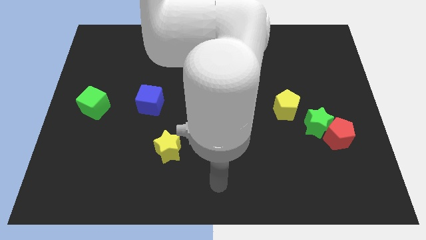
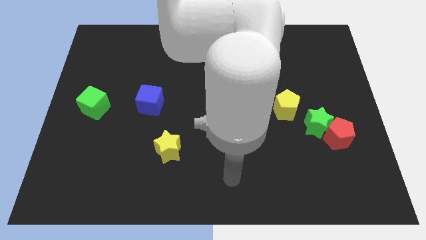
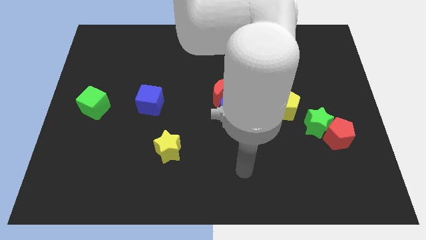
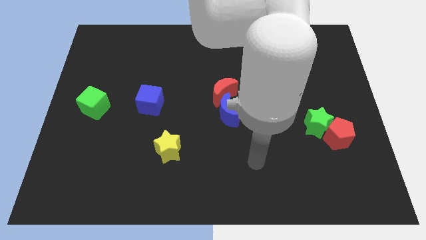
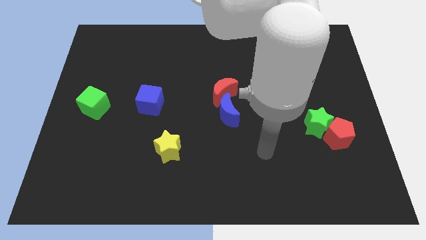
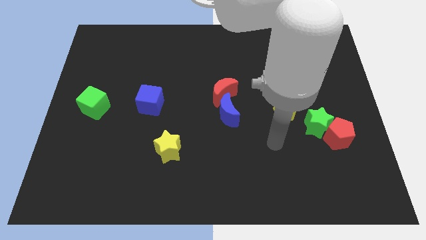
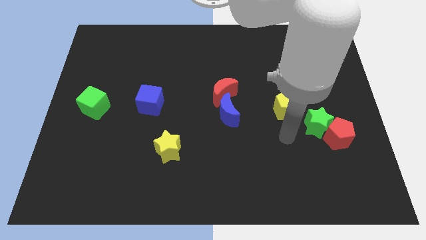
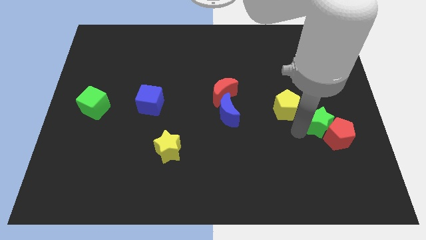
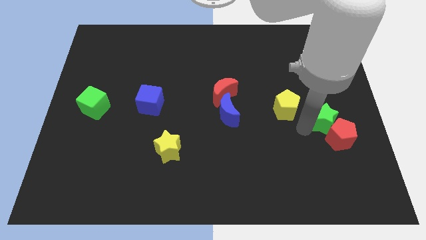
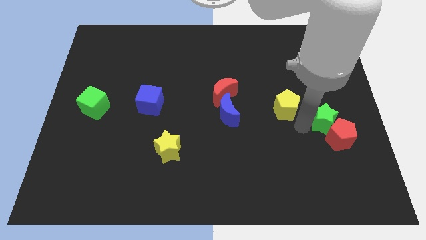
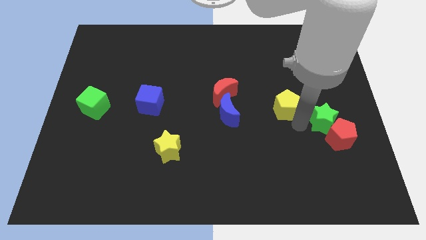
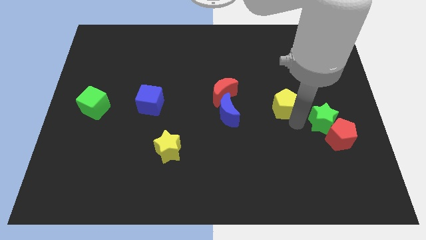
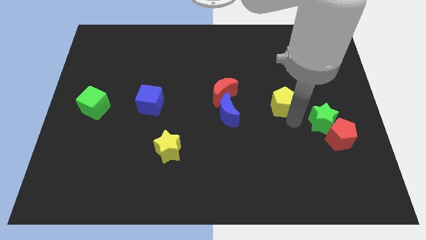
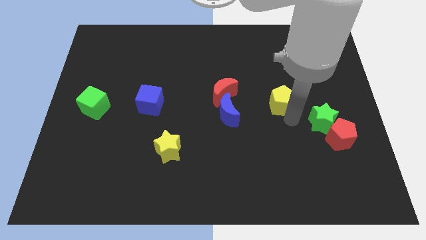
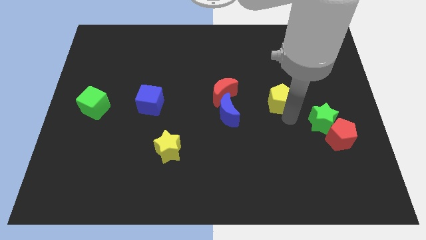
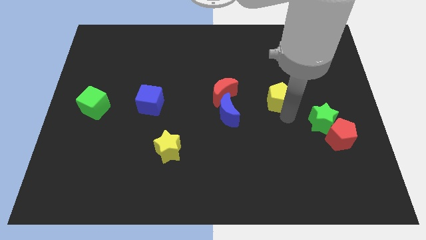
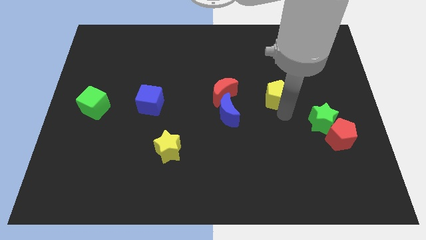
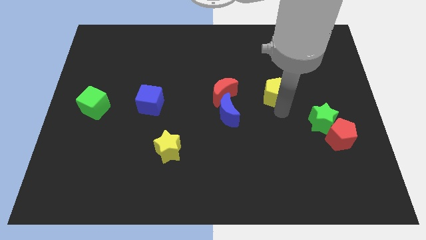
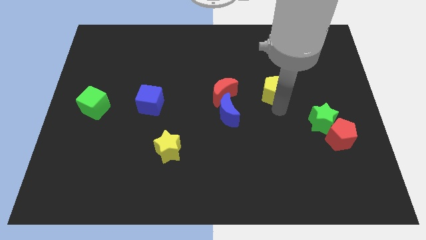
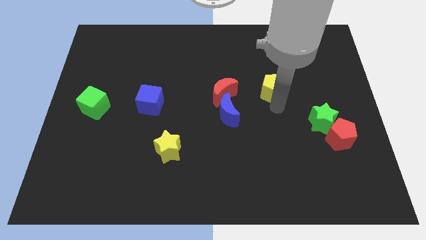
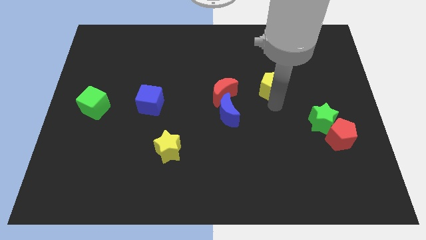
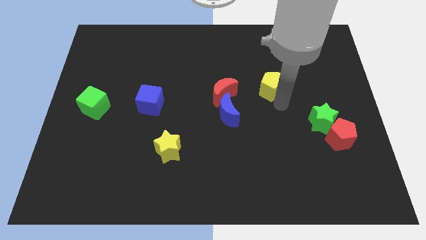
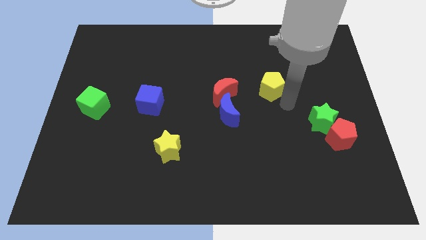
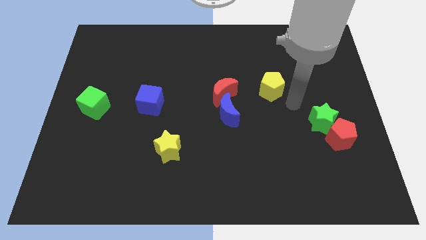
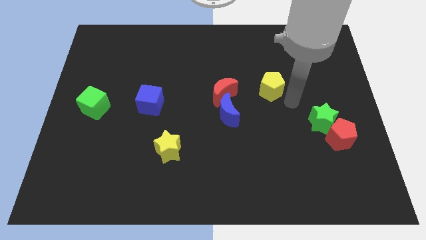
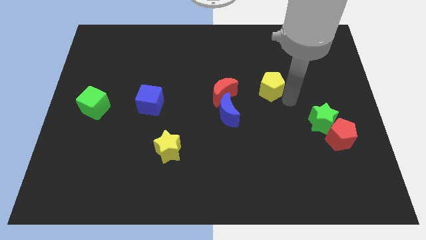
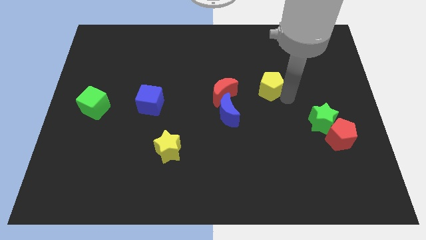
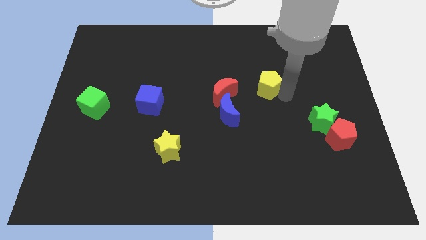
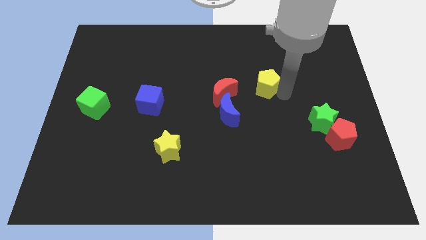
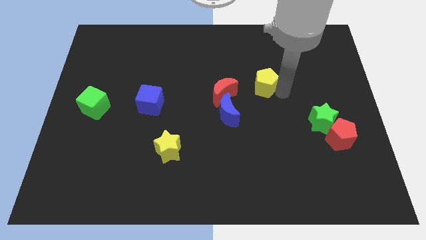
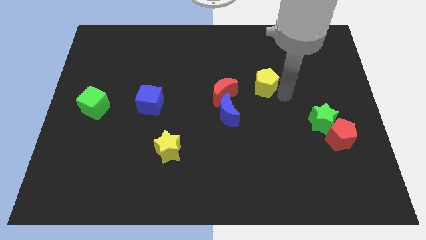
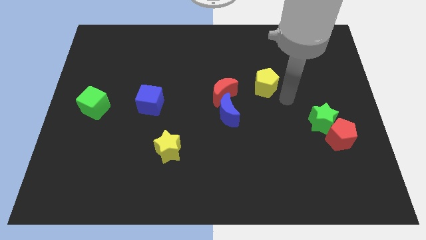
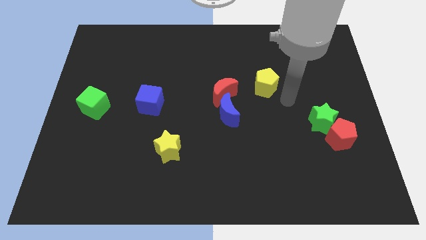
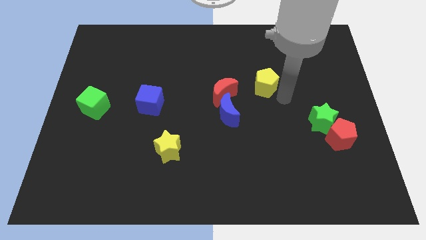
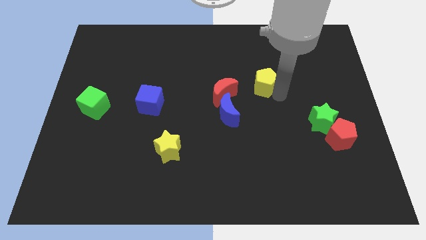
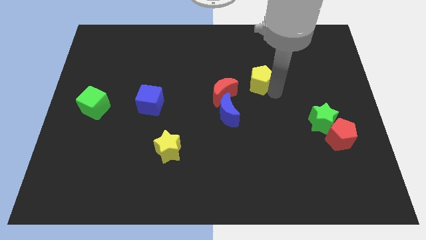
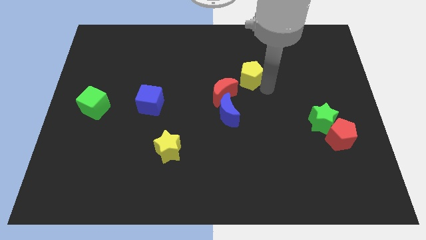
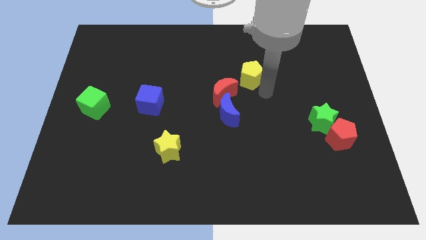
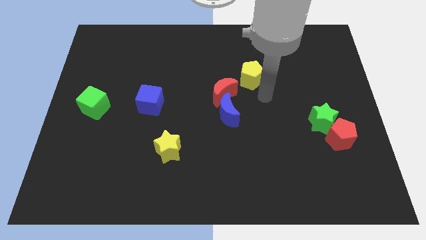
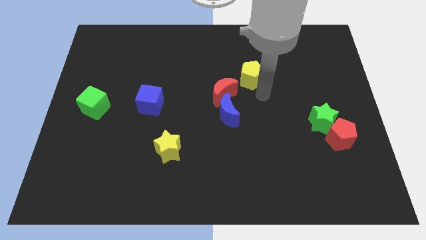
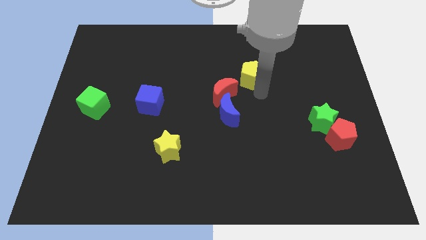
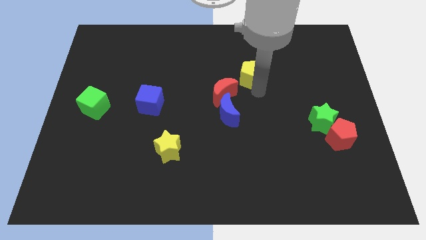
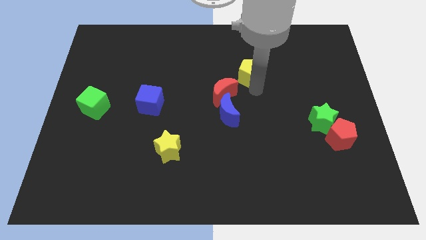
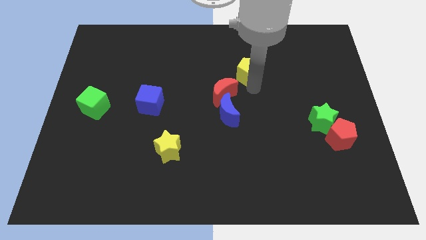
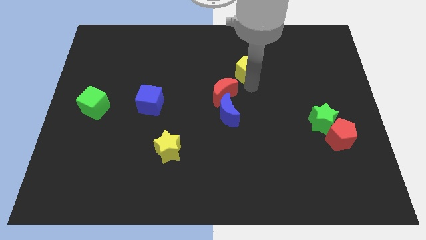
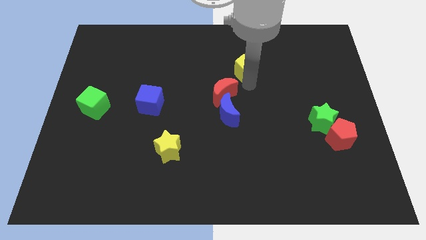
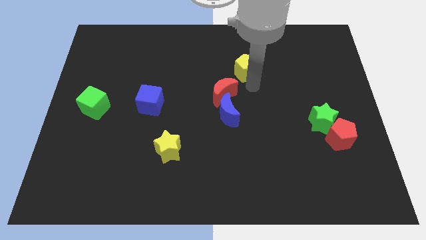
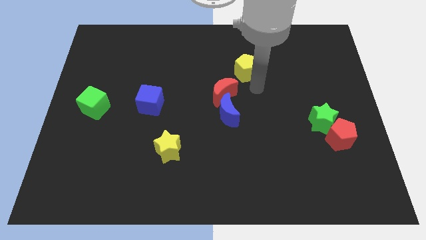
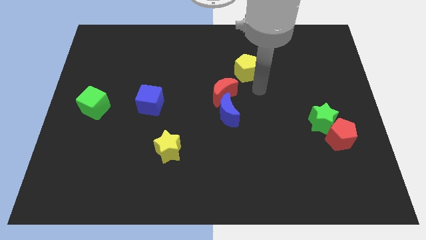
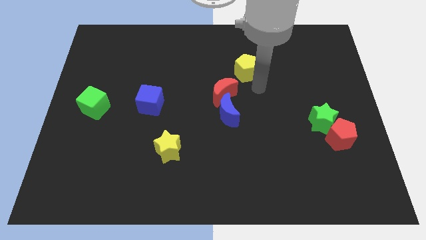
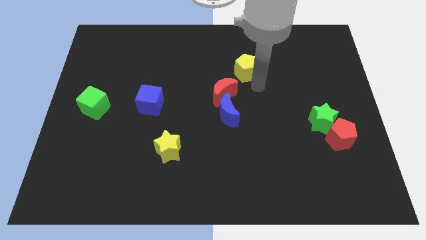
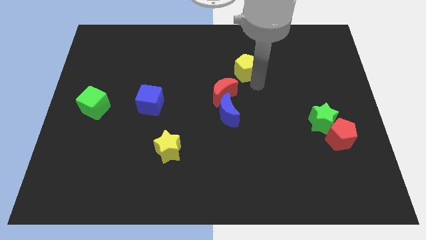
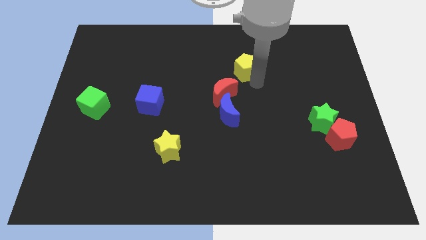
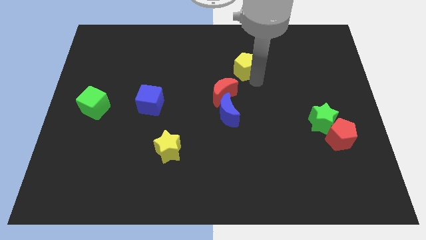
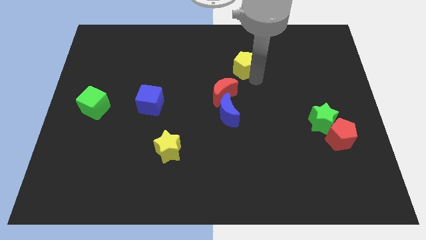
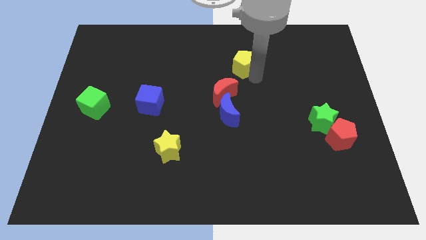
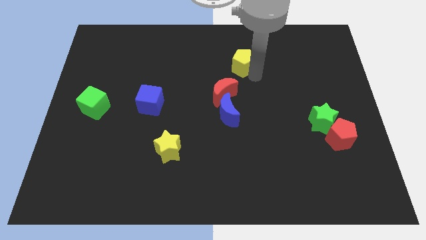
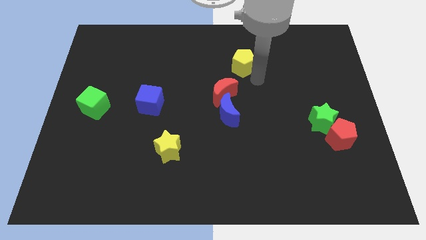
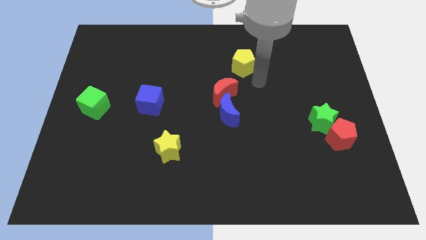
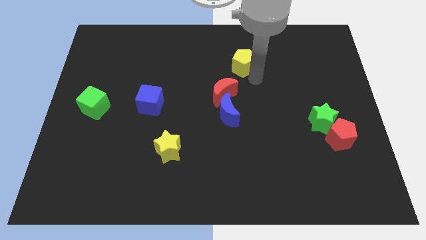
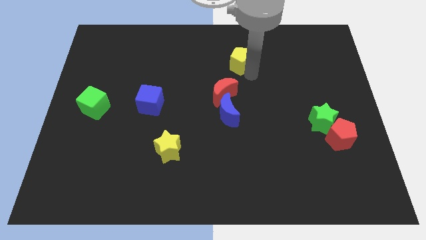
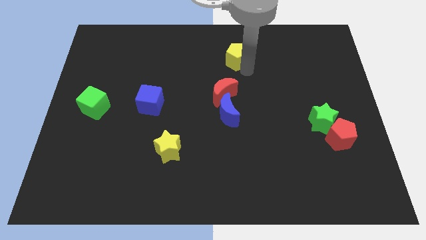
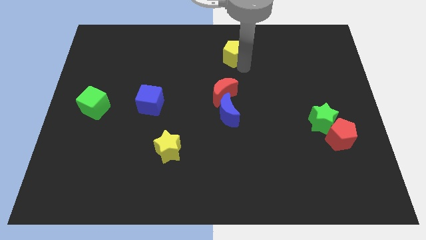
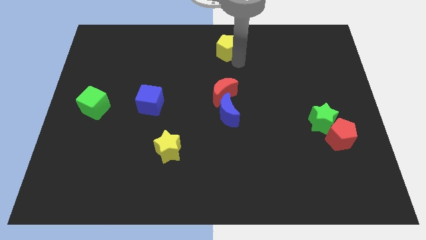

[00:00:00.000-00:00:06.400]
push the yellow pentagon to the top side
